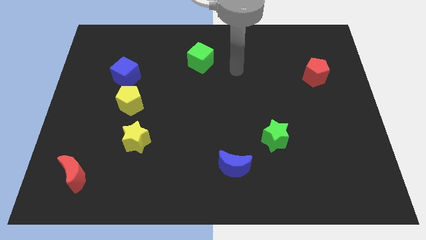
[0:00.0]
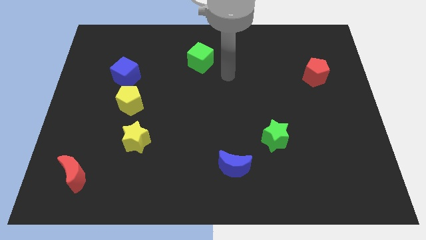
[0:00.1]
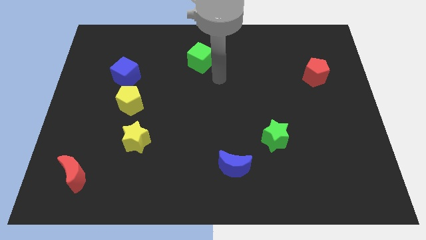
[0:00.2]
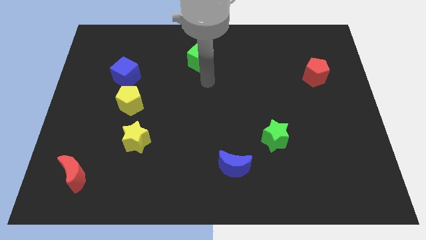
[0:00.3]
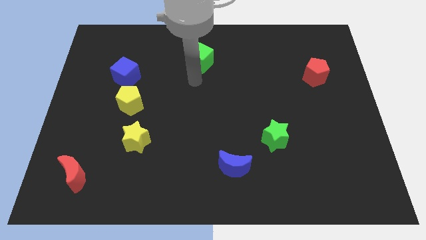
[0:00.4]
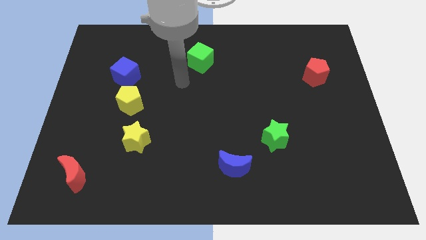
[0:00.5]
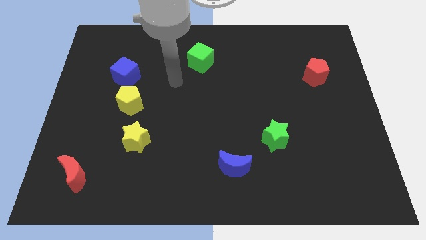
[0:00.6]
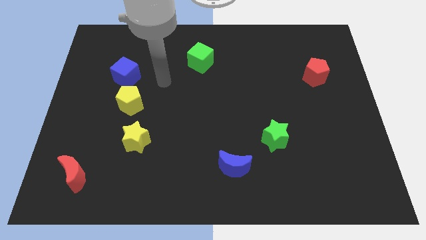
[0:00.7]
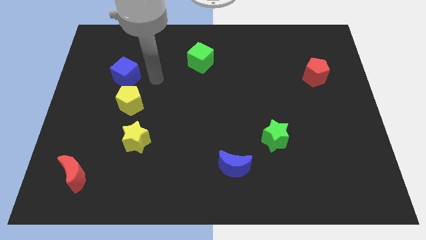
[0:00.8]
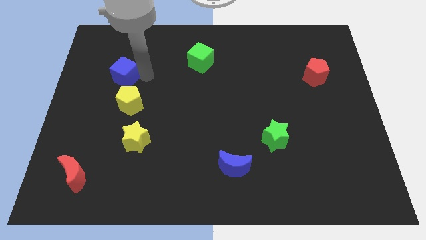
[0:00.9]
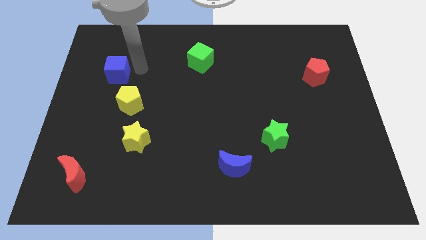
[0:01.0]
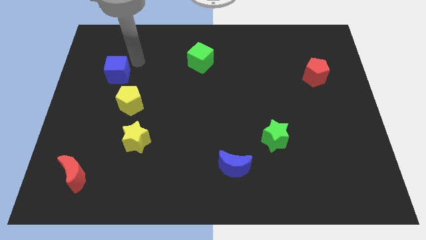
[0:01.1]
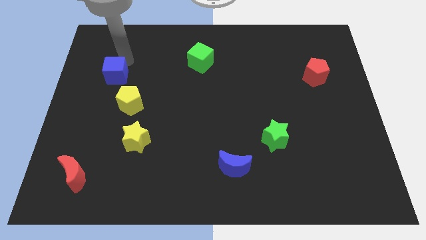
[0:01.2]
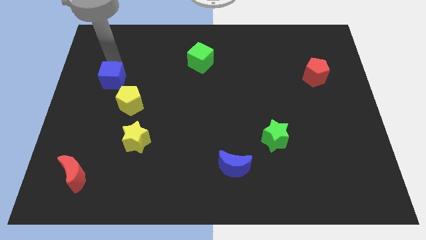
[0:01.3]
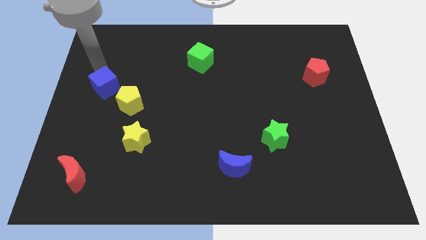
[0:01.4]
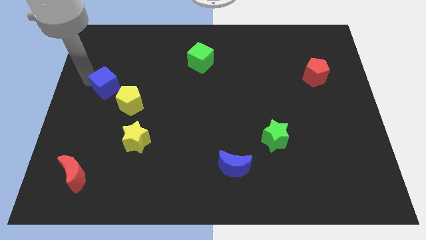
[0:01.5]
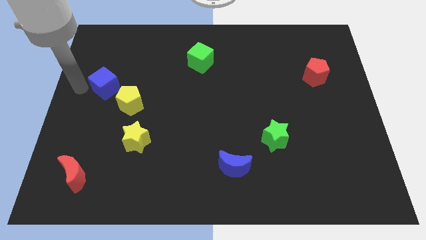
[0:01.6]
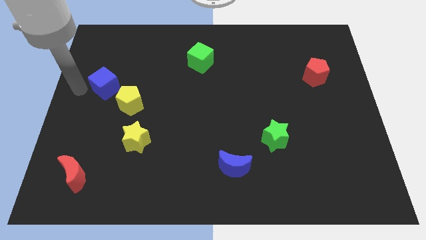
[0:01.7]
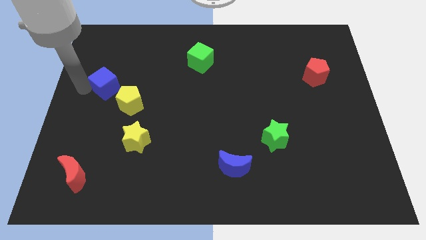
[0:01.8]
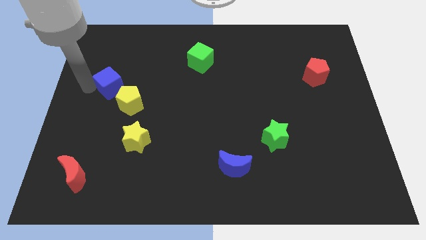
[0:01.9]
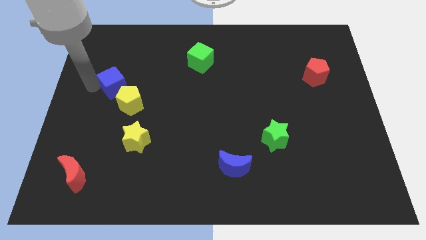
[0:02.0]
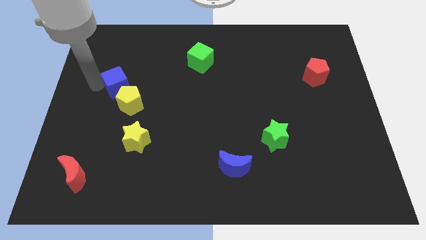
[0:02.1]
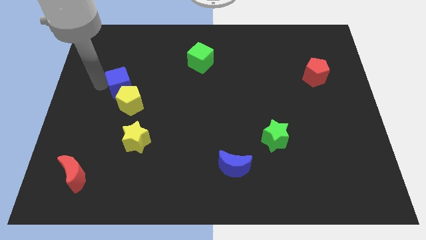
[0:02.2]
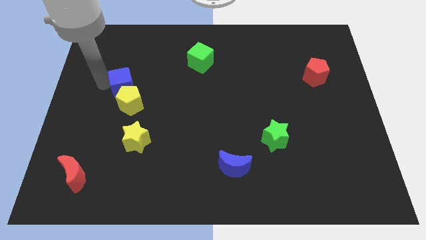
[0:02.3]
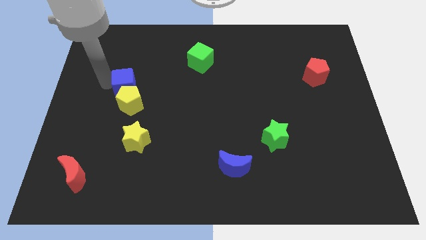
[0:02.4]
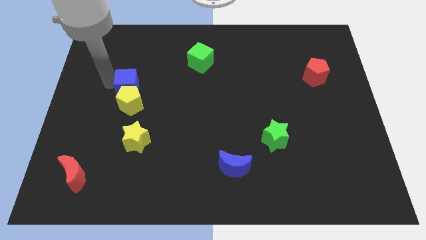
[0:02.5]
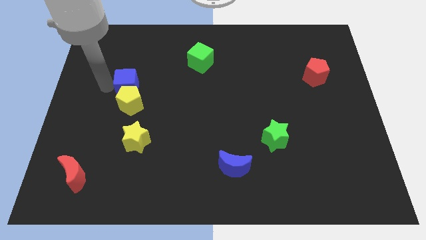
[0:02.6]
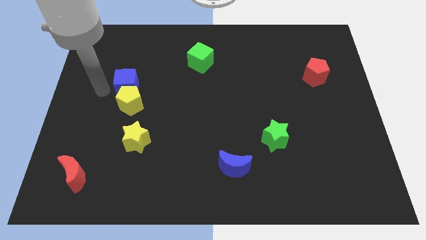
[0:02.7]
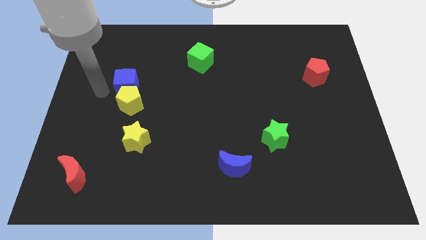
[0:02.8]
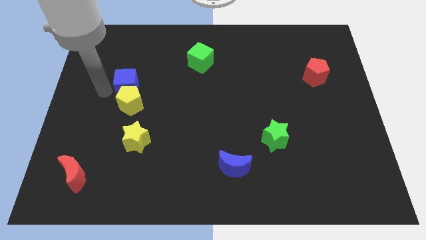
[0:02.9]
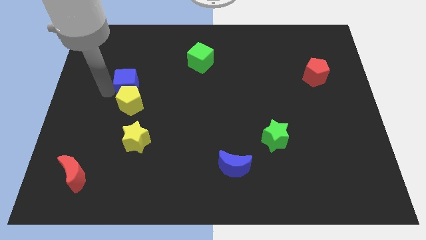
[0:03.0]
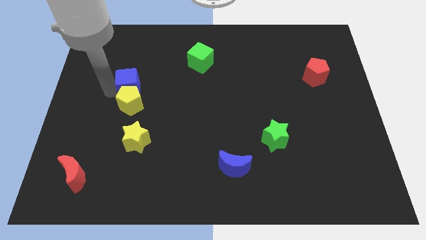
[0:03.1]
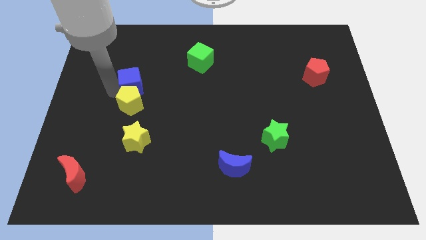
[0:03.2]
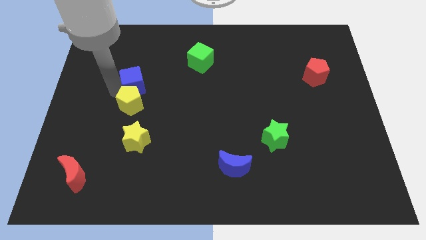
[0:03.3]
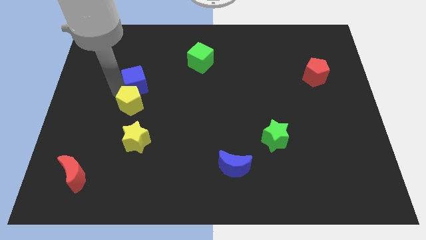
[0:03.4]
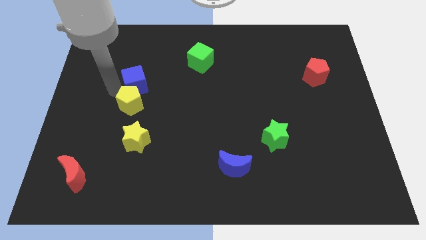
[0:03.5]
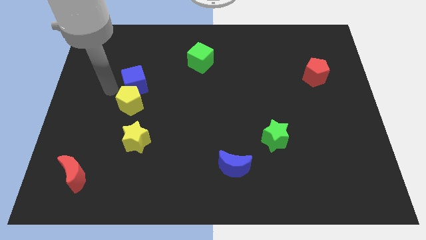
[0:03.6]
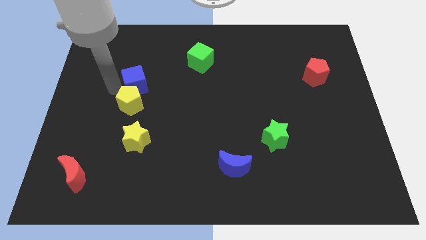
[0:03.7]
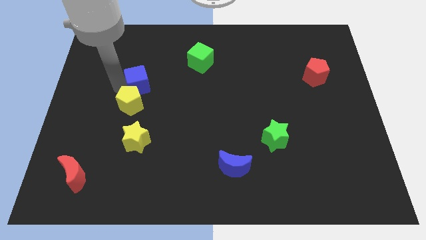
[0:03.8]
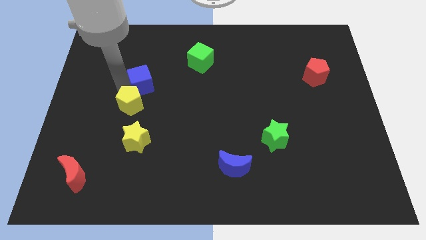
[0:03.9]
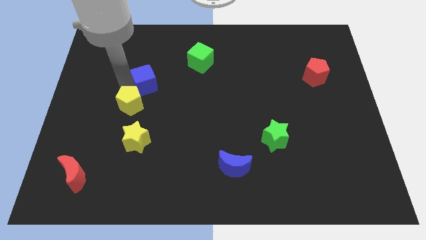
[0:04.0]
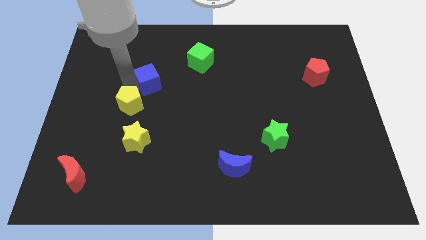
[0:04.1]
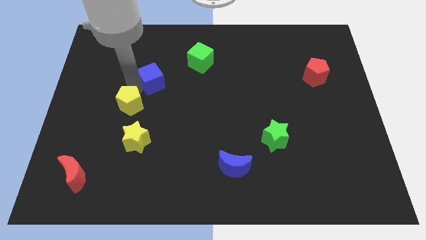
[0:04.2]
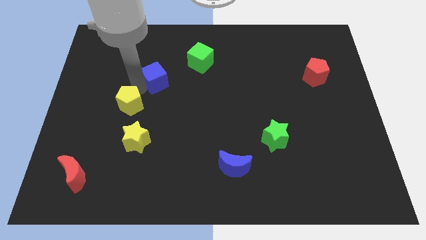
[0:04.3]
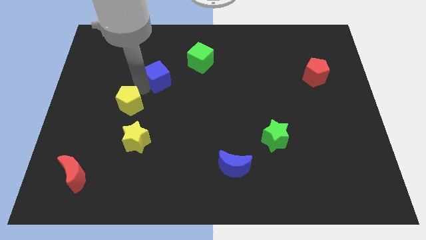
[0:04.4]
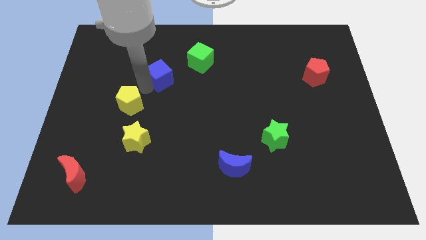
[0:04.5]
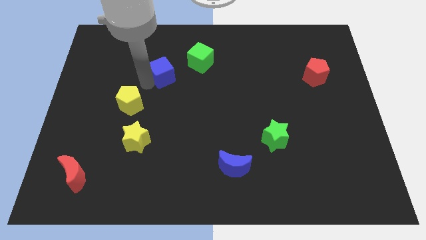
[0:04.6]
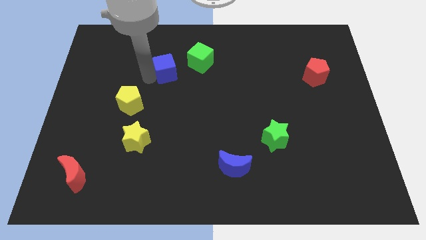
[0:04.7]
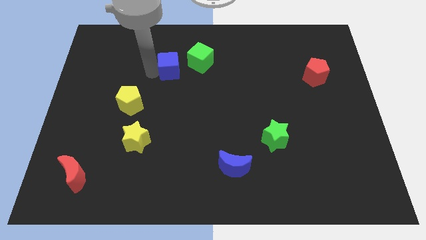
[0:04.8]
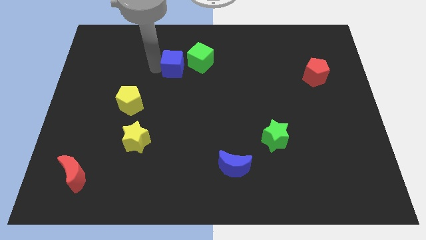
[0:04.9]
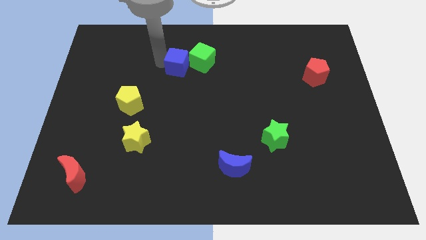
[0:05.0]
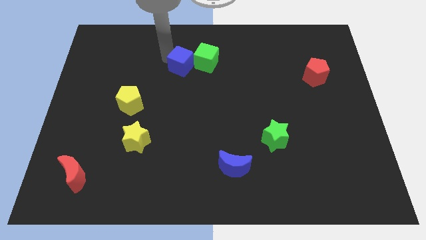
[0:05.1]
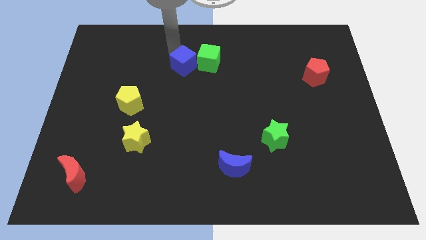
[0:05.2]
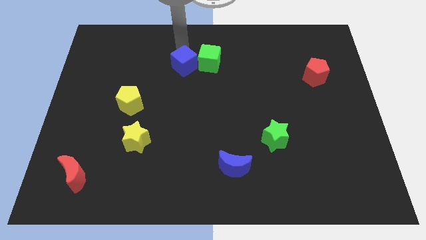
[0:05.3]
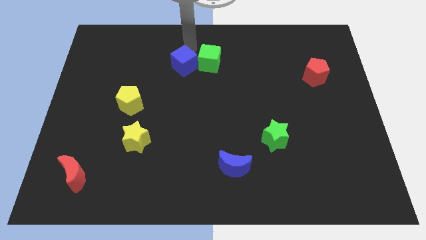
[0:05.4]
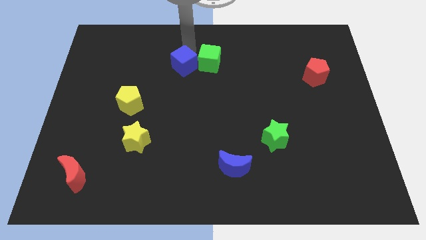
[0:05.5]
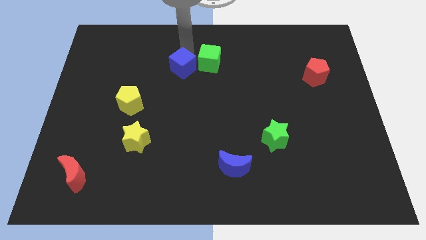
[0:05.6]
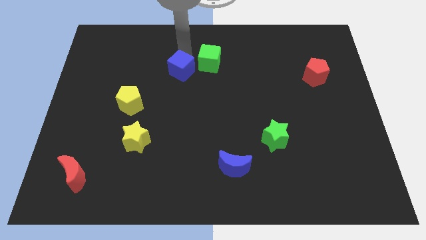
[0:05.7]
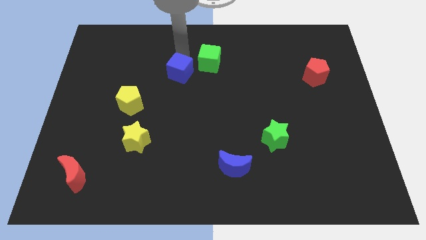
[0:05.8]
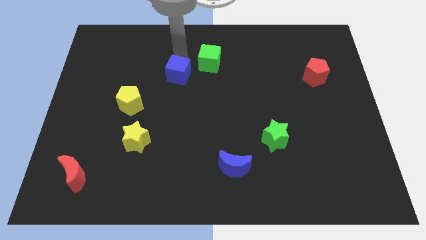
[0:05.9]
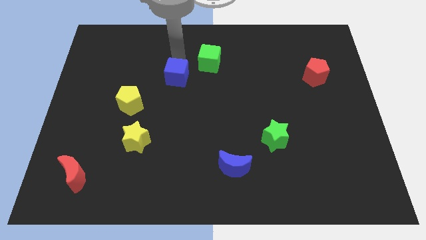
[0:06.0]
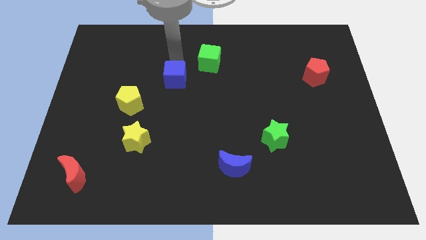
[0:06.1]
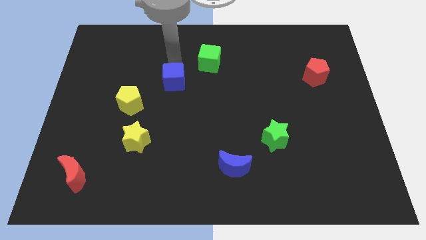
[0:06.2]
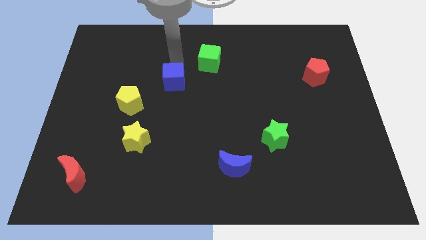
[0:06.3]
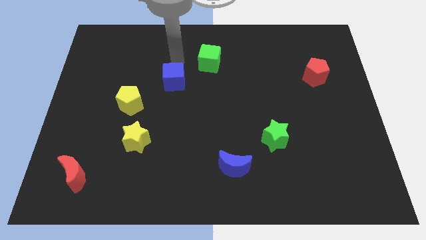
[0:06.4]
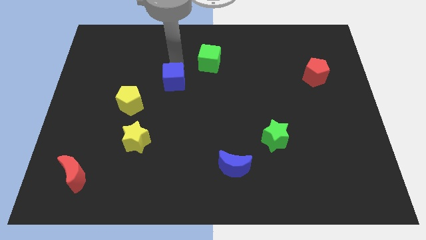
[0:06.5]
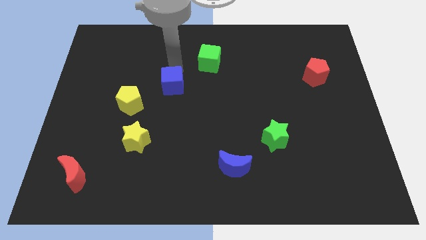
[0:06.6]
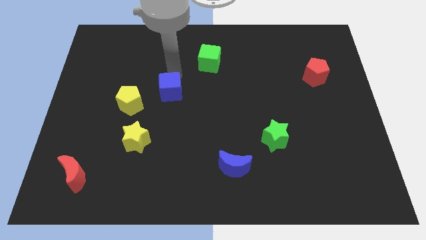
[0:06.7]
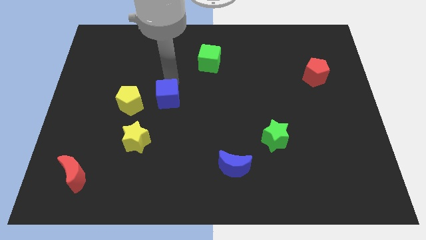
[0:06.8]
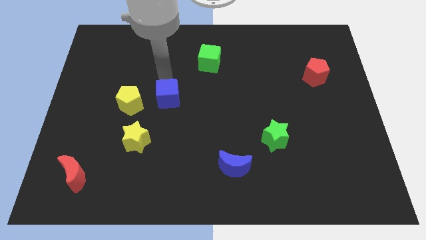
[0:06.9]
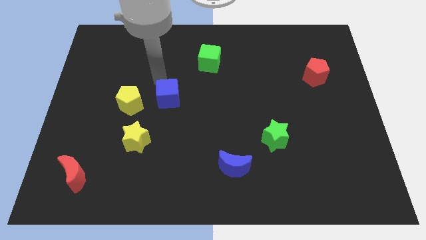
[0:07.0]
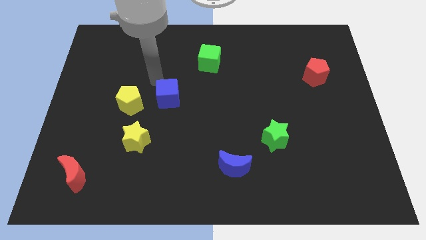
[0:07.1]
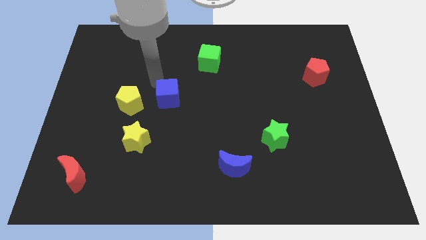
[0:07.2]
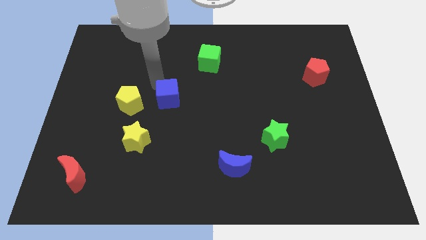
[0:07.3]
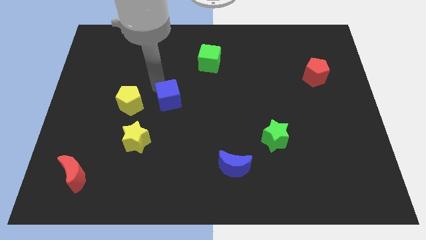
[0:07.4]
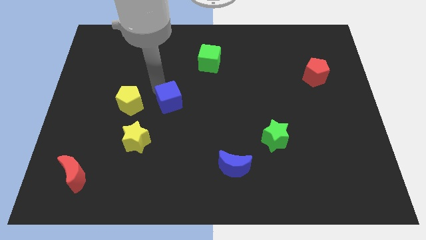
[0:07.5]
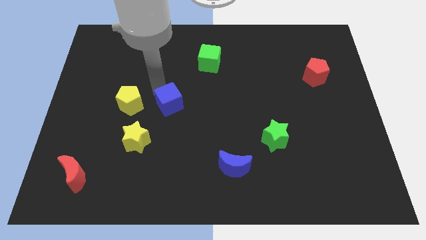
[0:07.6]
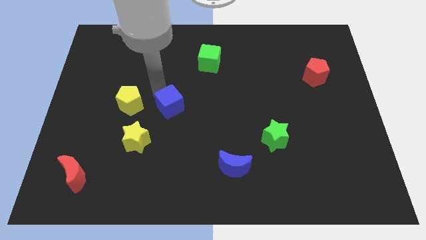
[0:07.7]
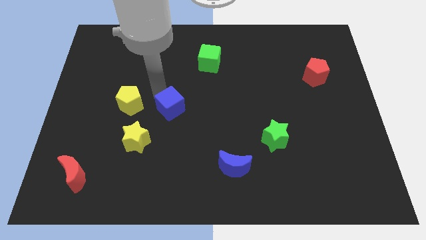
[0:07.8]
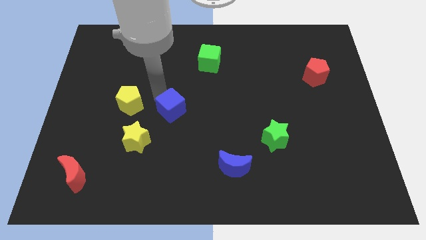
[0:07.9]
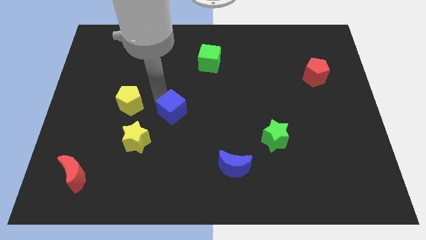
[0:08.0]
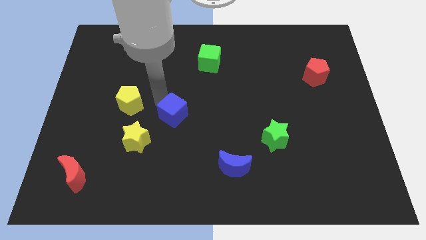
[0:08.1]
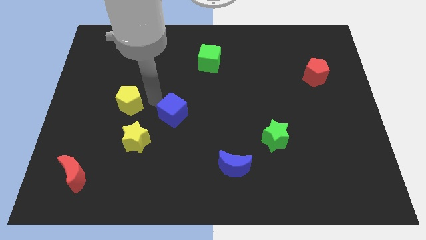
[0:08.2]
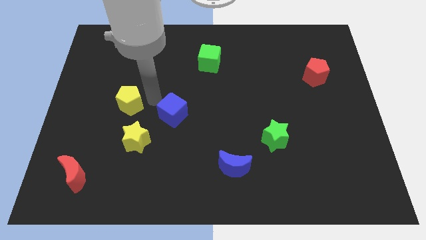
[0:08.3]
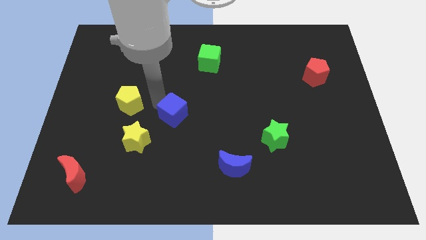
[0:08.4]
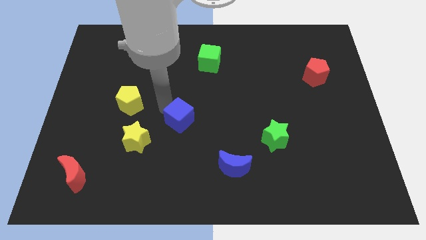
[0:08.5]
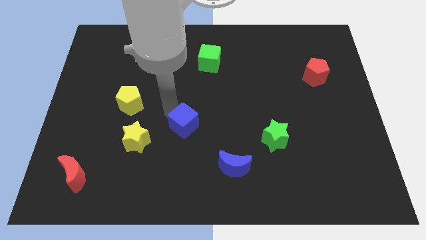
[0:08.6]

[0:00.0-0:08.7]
slide the blue cube downwards and right
